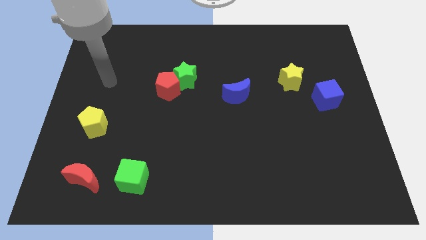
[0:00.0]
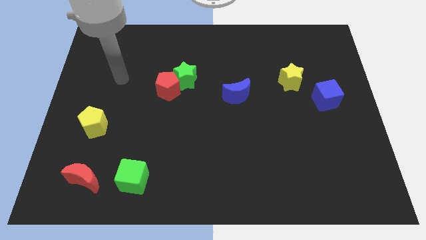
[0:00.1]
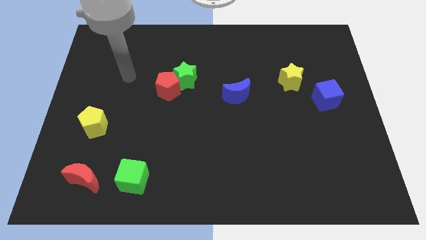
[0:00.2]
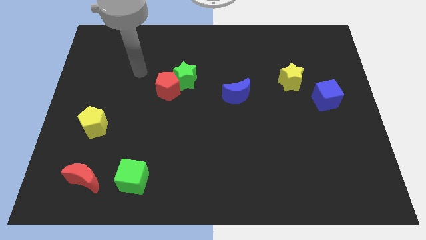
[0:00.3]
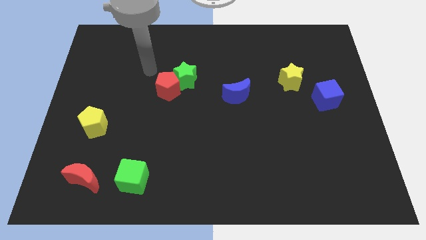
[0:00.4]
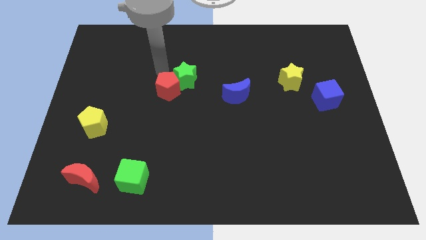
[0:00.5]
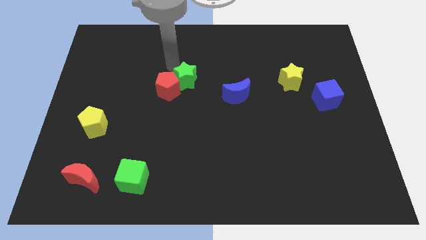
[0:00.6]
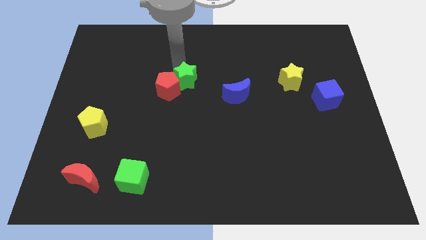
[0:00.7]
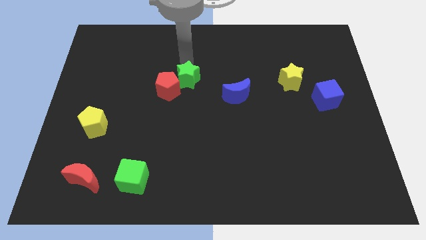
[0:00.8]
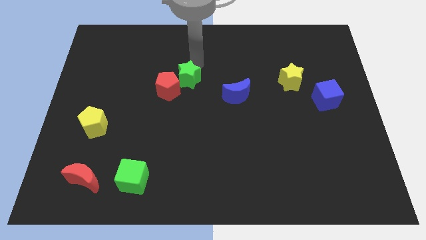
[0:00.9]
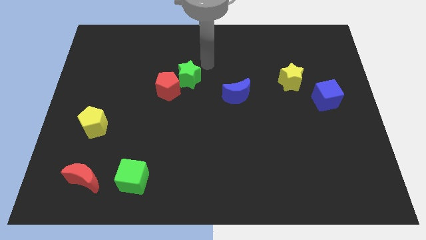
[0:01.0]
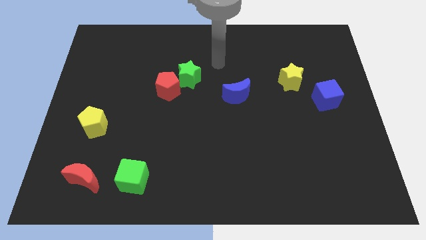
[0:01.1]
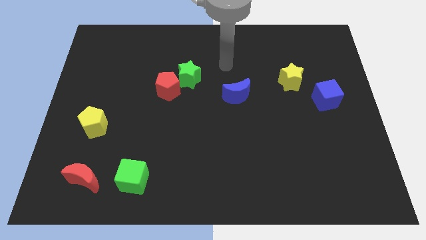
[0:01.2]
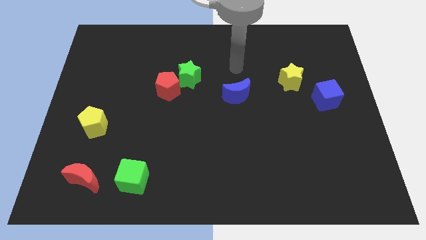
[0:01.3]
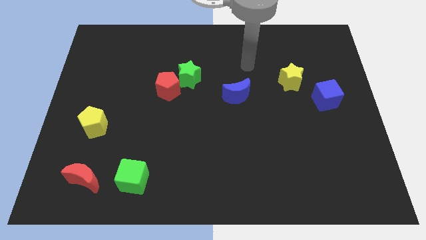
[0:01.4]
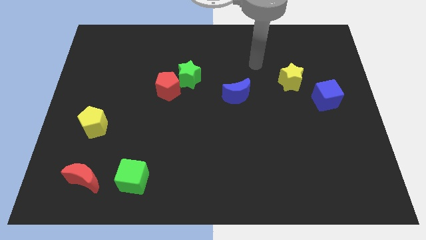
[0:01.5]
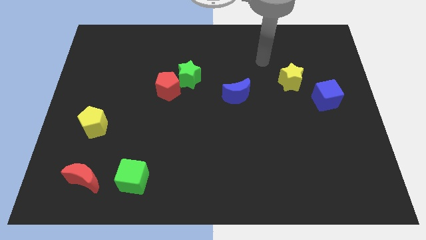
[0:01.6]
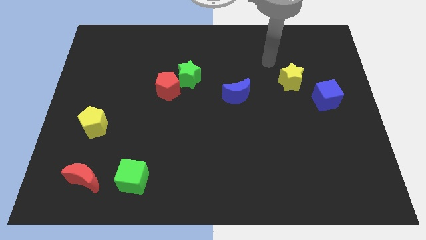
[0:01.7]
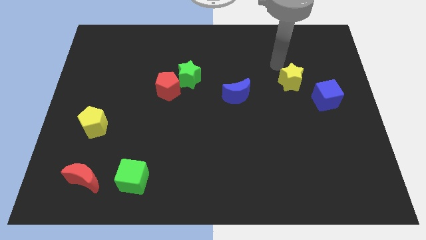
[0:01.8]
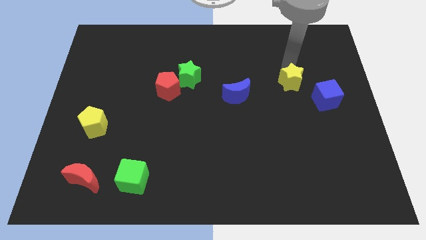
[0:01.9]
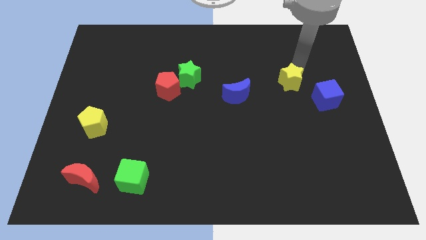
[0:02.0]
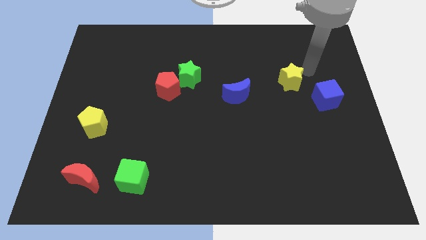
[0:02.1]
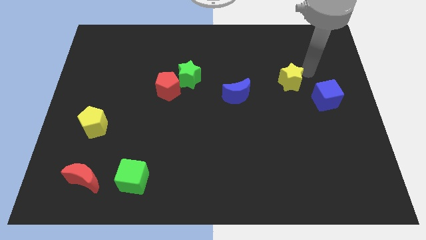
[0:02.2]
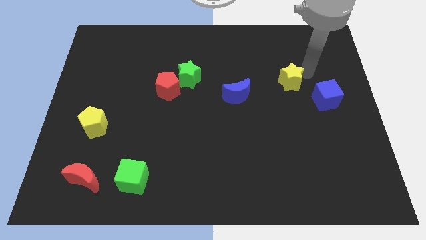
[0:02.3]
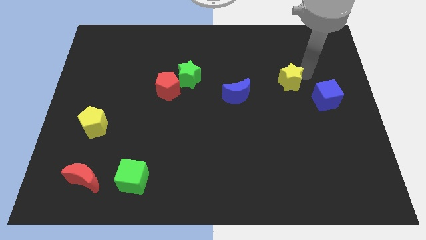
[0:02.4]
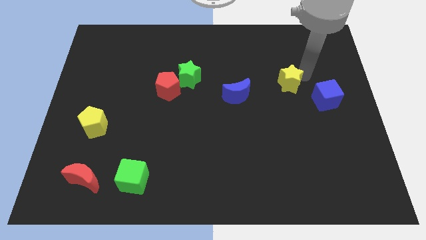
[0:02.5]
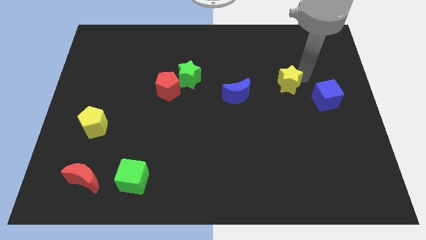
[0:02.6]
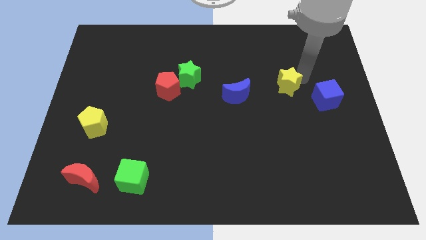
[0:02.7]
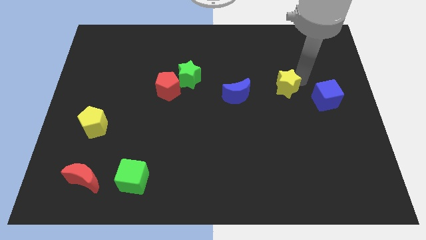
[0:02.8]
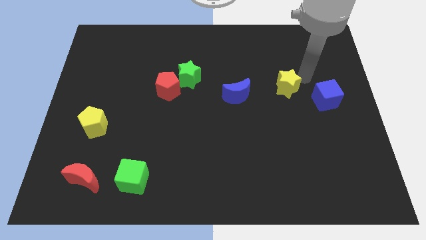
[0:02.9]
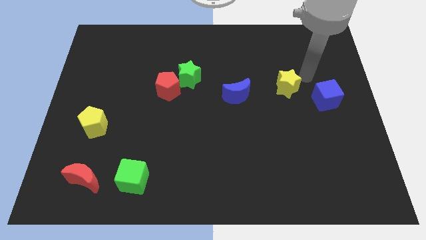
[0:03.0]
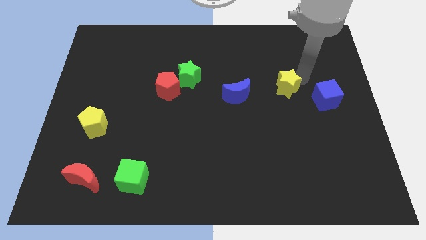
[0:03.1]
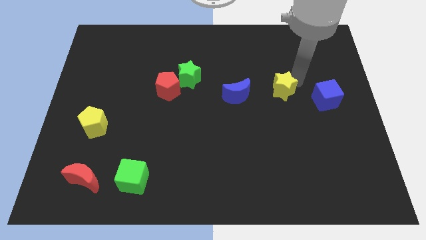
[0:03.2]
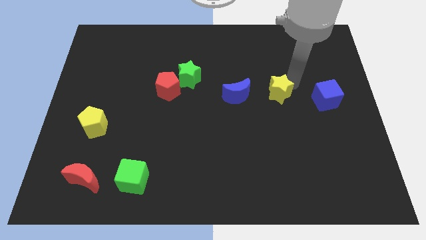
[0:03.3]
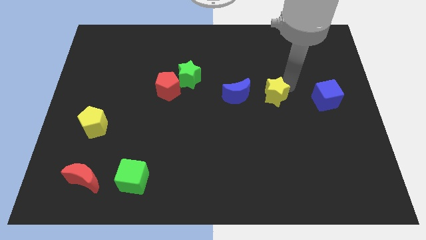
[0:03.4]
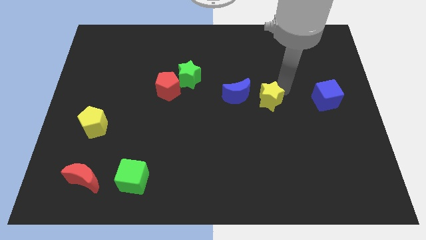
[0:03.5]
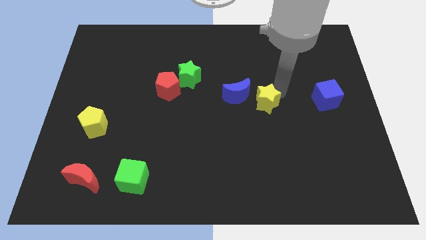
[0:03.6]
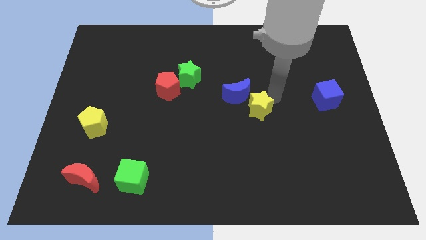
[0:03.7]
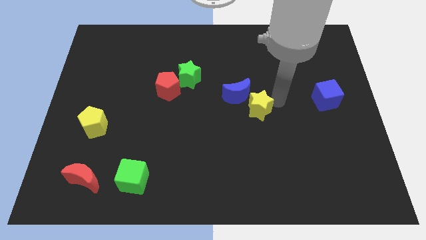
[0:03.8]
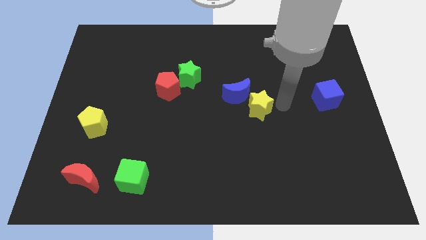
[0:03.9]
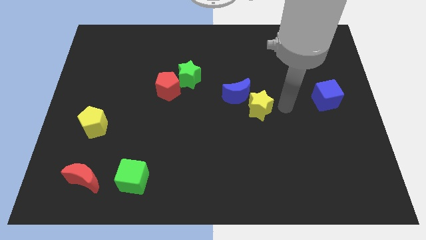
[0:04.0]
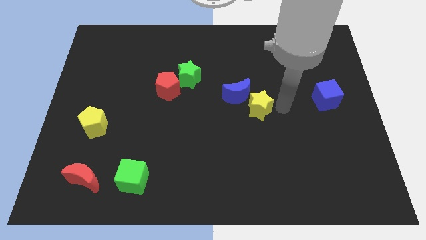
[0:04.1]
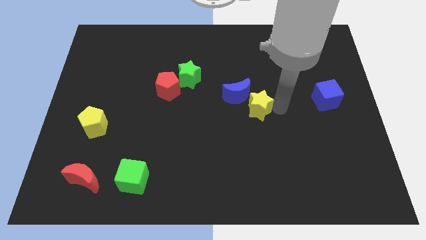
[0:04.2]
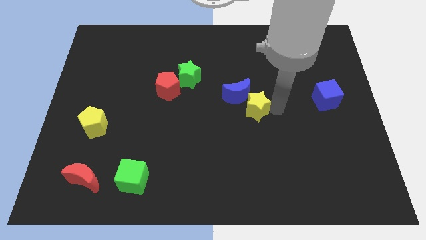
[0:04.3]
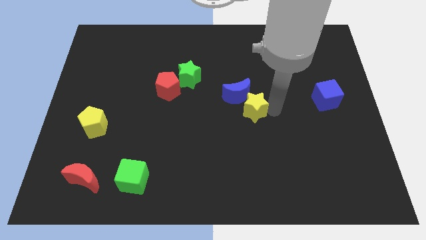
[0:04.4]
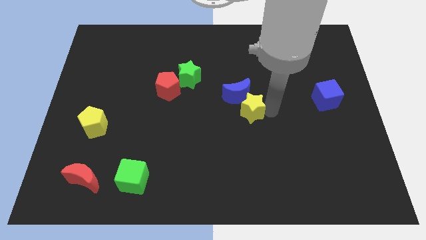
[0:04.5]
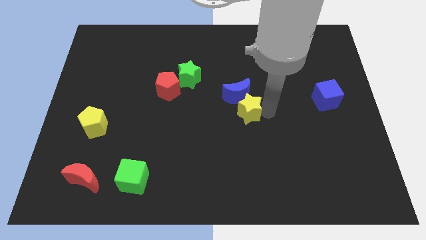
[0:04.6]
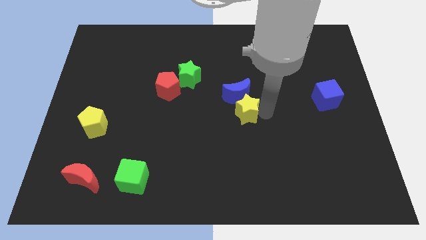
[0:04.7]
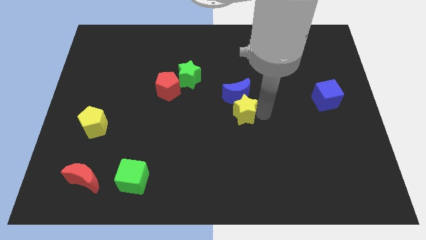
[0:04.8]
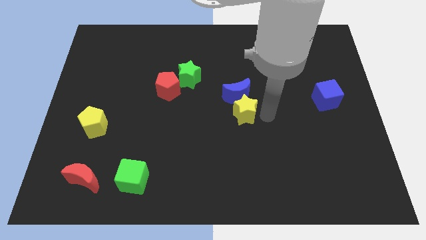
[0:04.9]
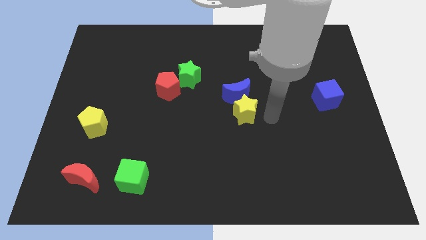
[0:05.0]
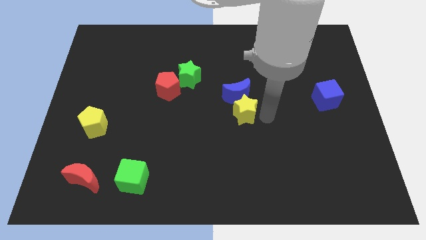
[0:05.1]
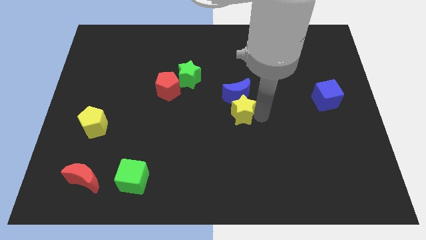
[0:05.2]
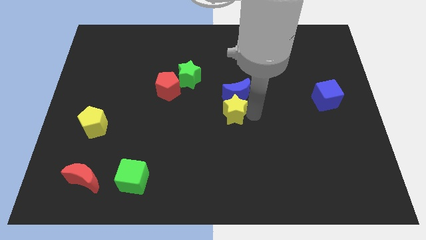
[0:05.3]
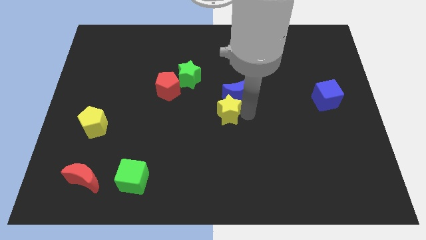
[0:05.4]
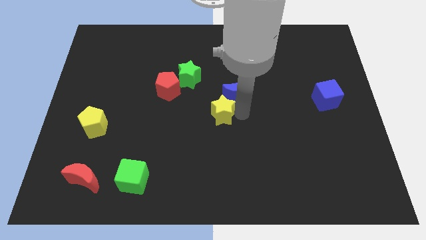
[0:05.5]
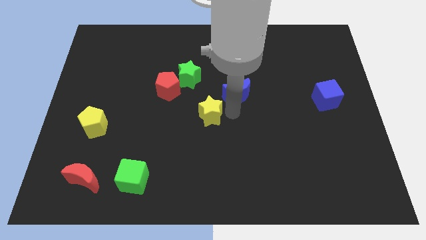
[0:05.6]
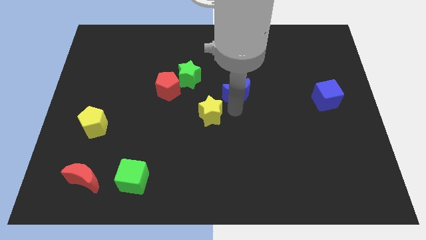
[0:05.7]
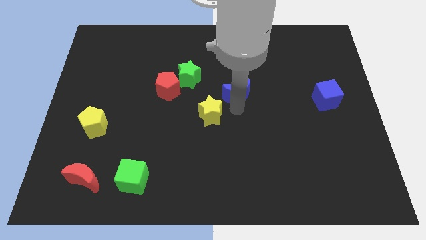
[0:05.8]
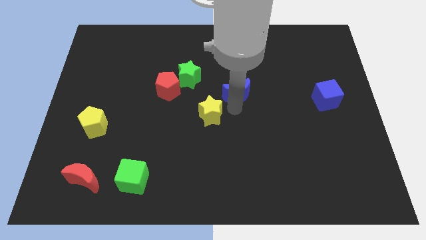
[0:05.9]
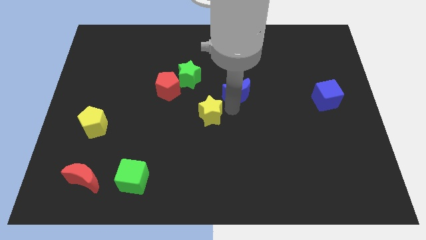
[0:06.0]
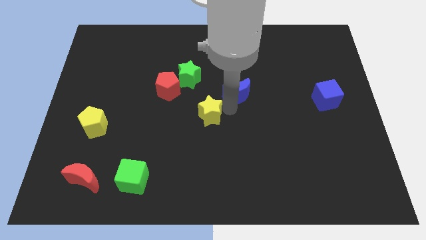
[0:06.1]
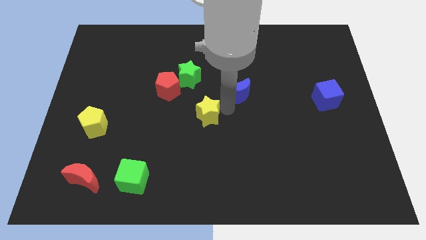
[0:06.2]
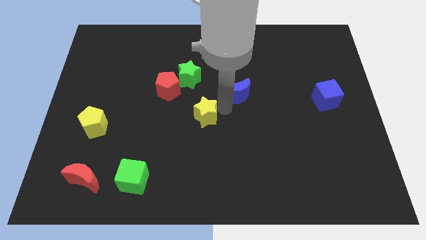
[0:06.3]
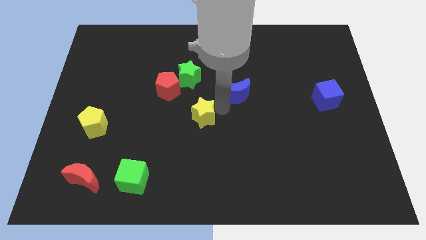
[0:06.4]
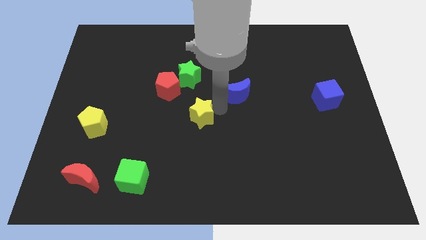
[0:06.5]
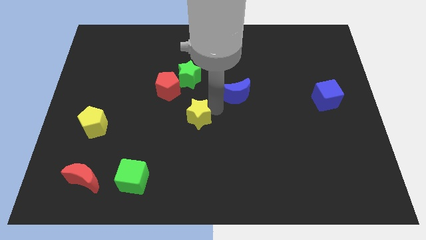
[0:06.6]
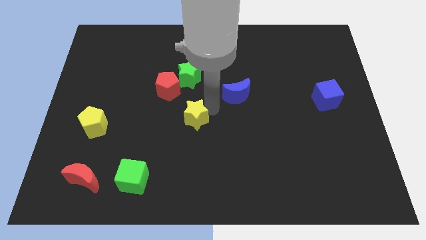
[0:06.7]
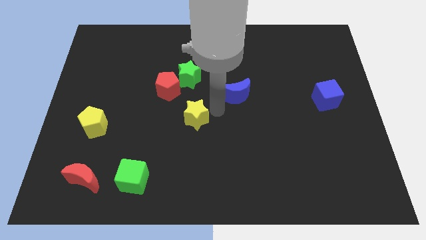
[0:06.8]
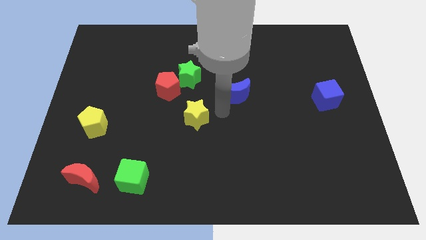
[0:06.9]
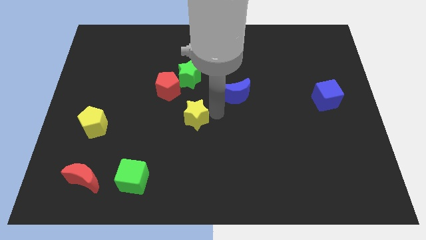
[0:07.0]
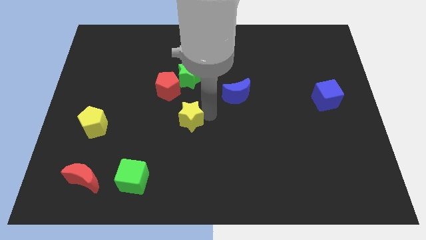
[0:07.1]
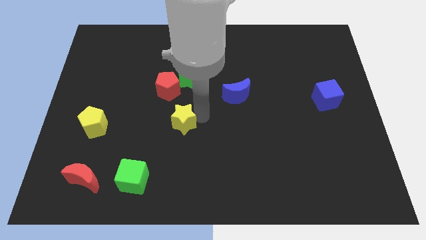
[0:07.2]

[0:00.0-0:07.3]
push the yellow star to the bottom of the red pentagon

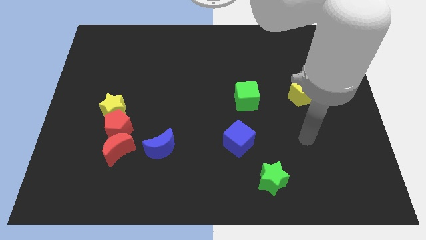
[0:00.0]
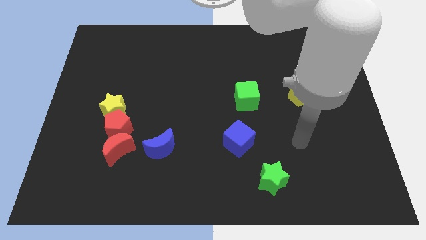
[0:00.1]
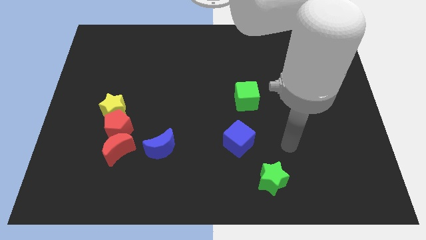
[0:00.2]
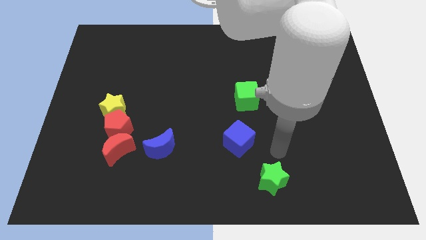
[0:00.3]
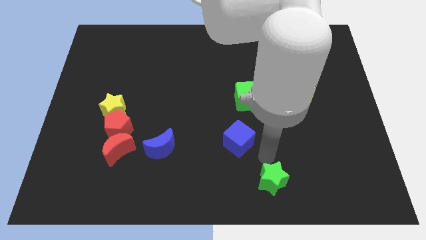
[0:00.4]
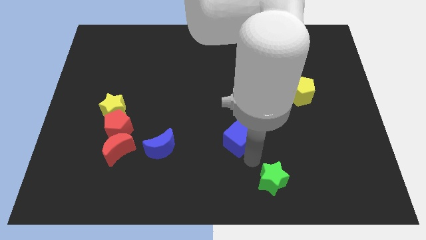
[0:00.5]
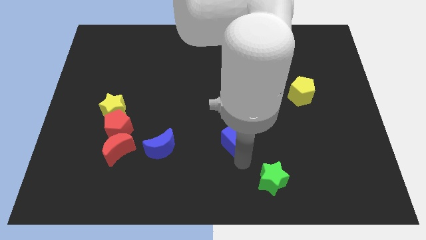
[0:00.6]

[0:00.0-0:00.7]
put the blue moon just left of the blue cube
